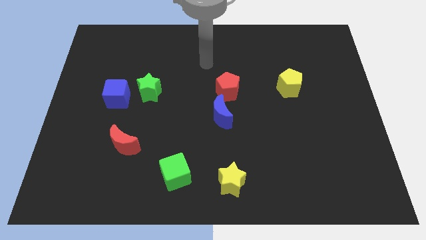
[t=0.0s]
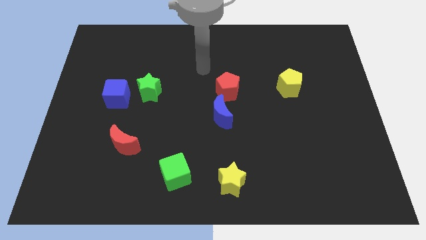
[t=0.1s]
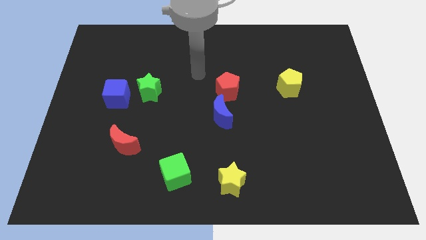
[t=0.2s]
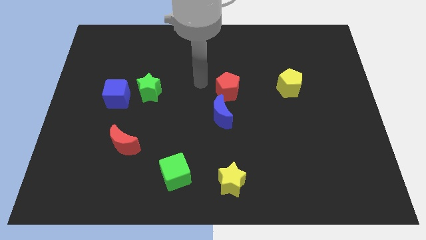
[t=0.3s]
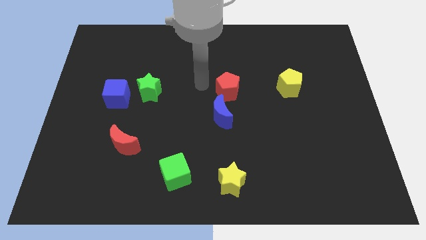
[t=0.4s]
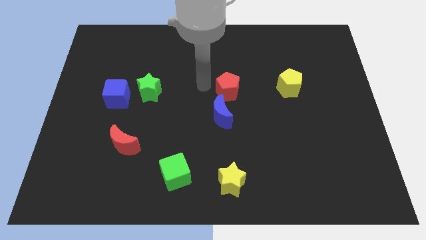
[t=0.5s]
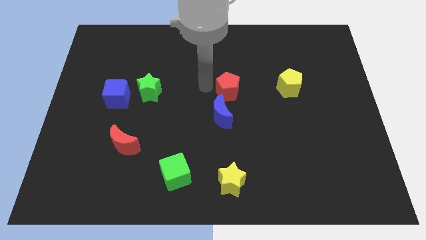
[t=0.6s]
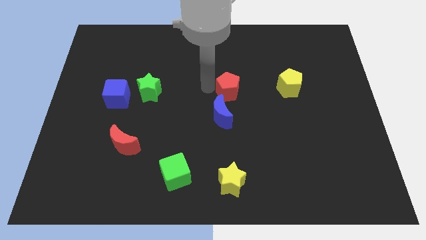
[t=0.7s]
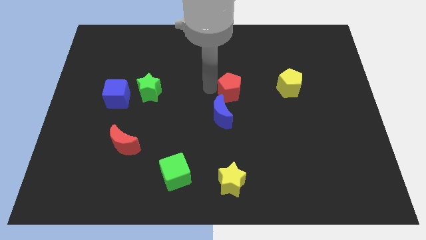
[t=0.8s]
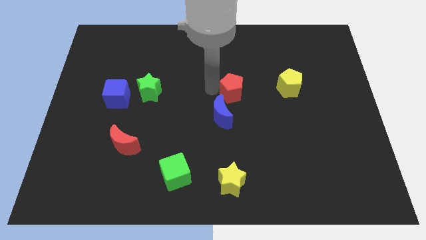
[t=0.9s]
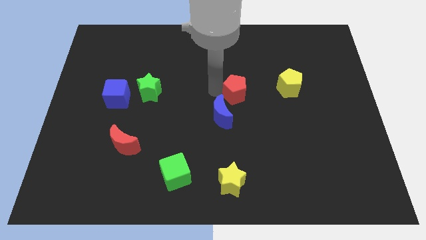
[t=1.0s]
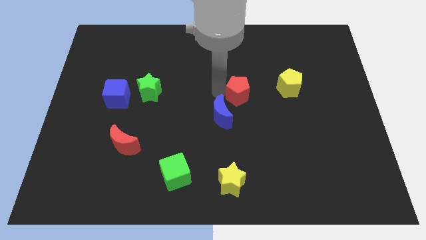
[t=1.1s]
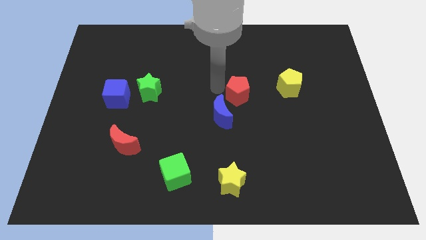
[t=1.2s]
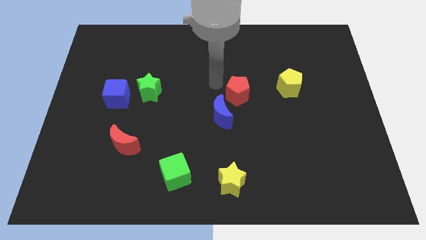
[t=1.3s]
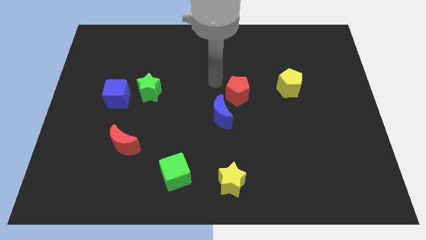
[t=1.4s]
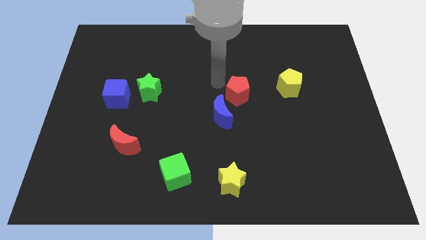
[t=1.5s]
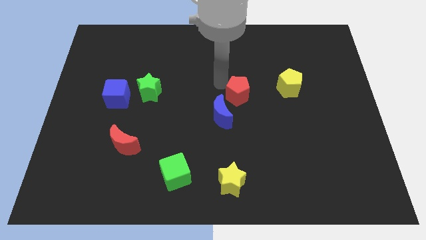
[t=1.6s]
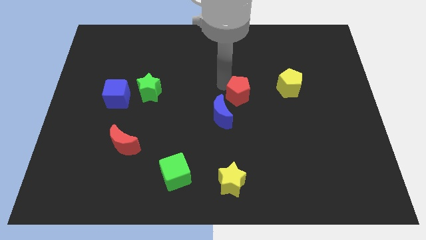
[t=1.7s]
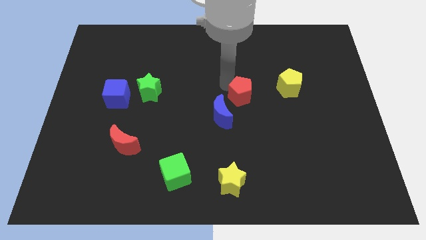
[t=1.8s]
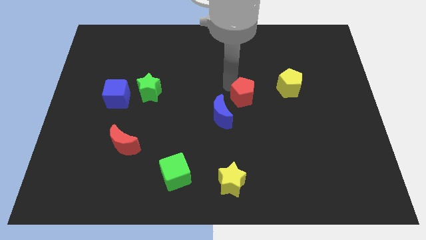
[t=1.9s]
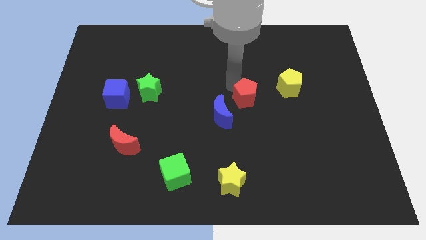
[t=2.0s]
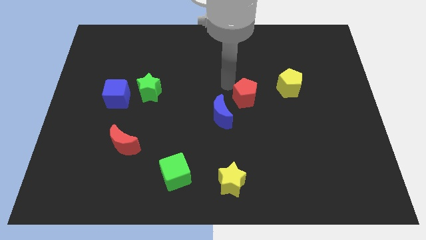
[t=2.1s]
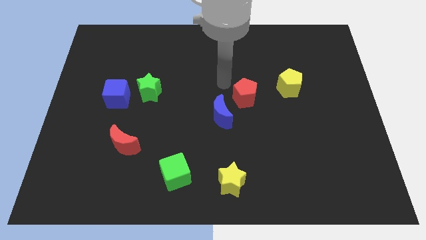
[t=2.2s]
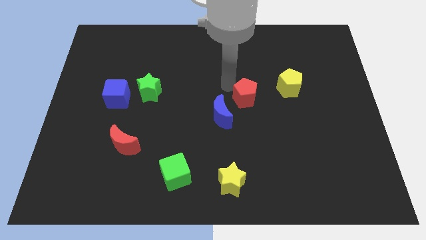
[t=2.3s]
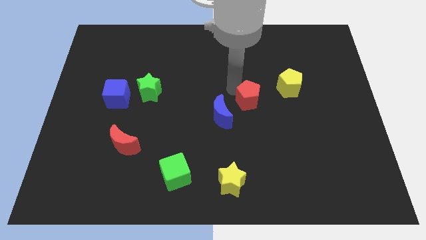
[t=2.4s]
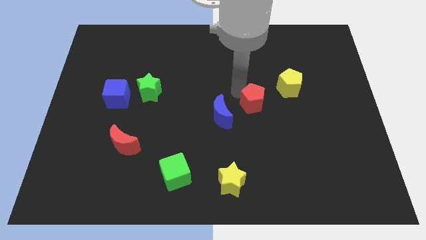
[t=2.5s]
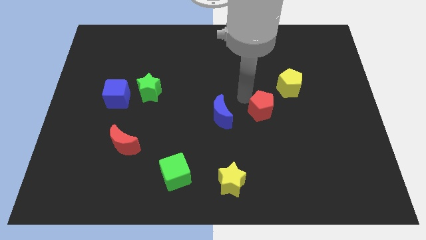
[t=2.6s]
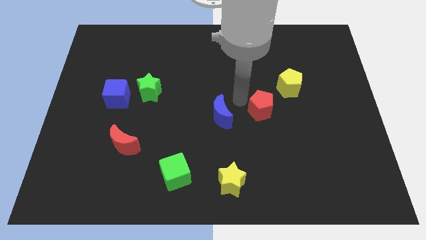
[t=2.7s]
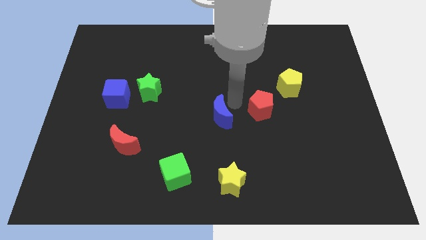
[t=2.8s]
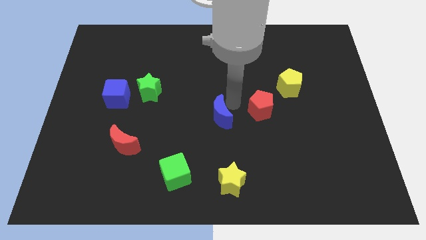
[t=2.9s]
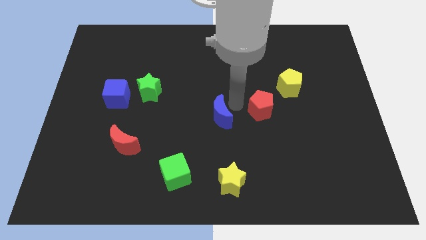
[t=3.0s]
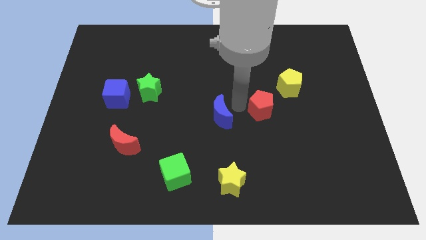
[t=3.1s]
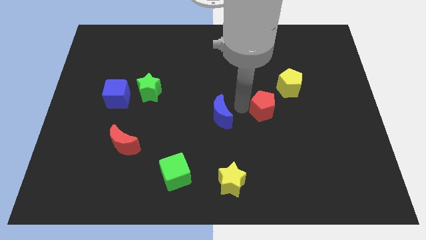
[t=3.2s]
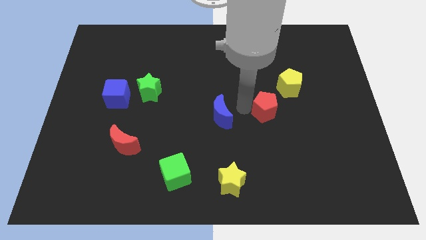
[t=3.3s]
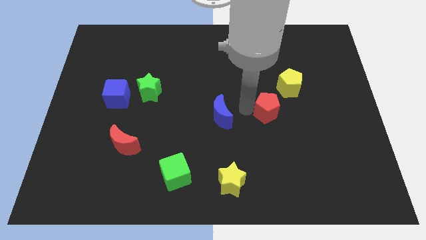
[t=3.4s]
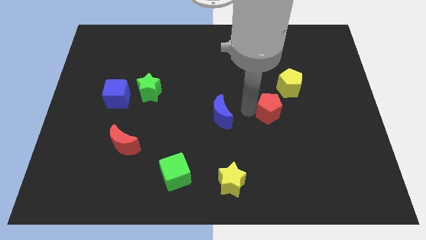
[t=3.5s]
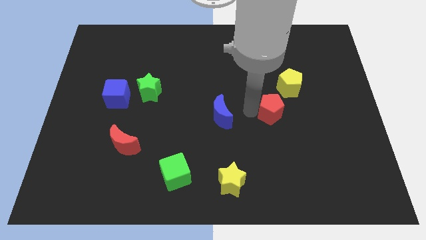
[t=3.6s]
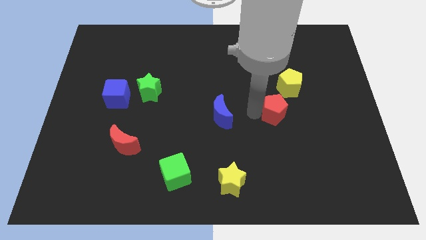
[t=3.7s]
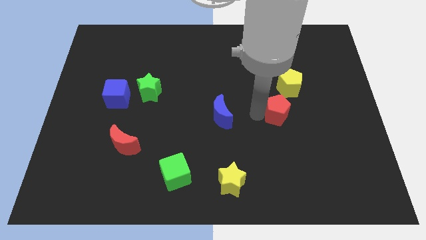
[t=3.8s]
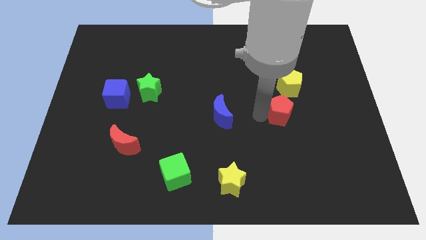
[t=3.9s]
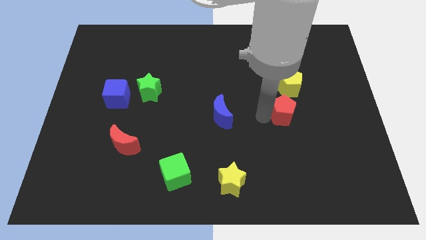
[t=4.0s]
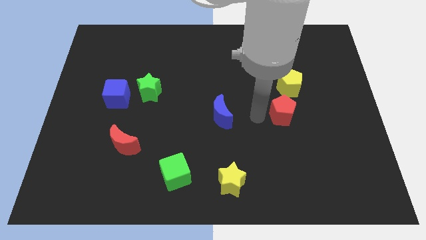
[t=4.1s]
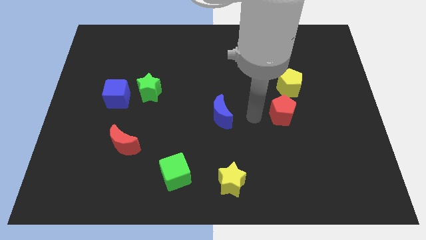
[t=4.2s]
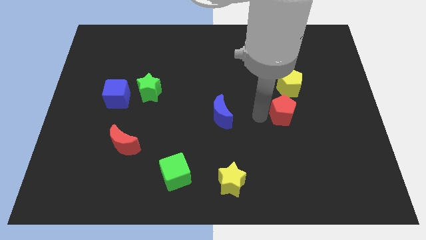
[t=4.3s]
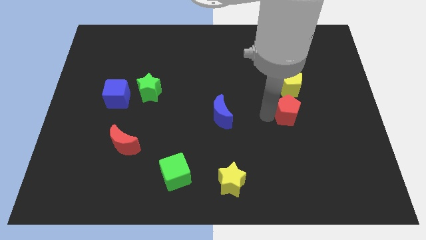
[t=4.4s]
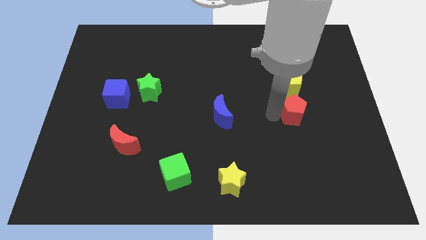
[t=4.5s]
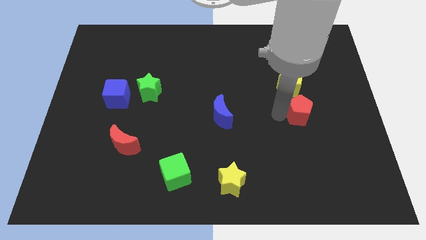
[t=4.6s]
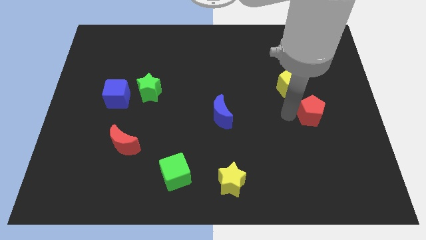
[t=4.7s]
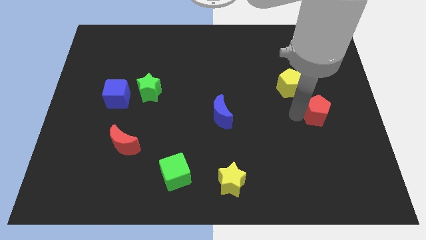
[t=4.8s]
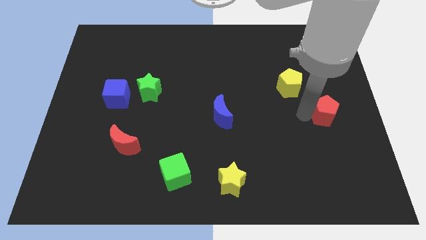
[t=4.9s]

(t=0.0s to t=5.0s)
slide the red pentagon to the right side

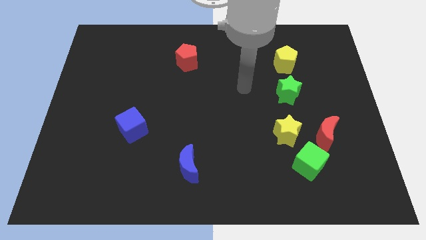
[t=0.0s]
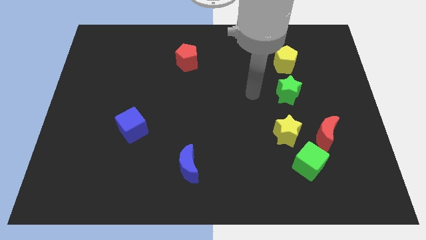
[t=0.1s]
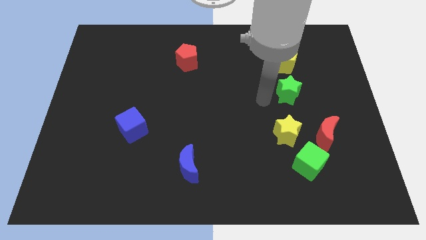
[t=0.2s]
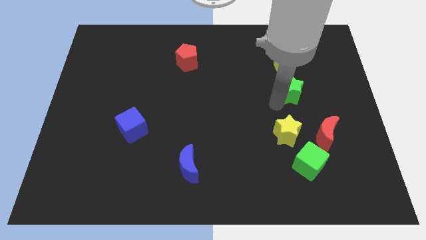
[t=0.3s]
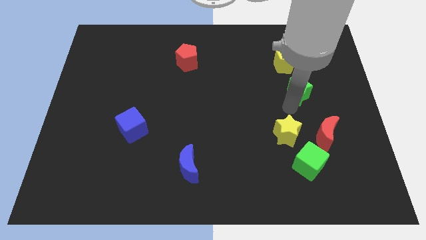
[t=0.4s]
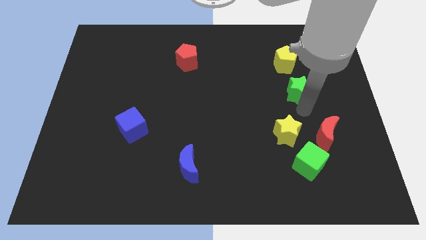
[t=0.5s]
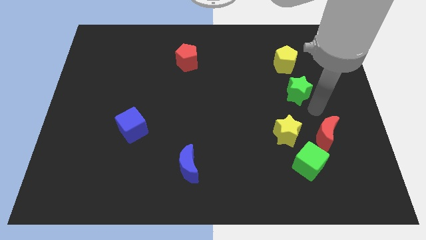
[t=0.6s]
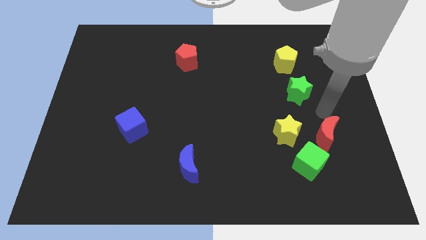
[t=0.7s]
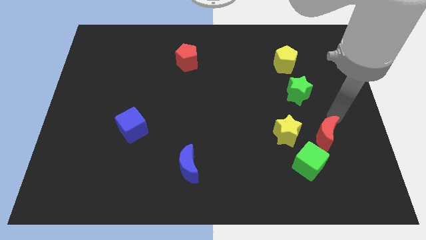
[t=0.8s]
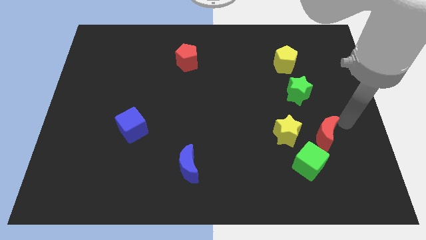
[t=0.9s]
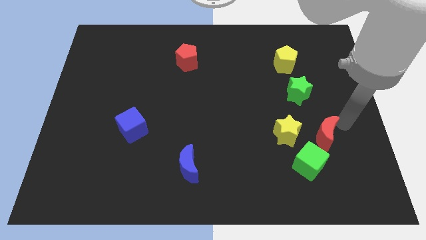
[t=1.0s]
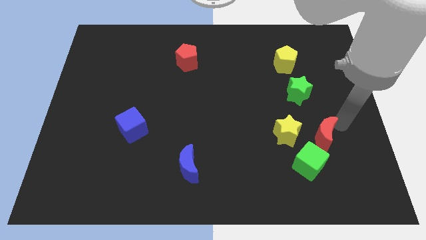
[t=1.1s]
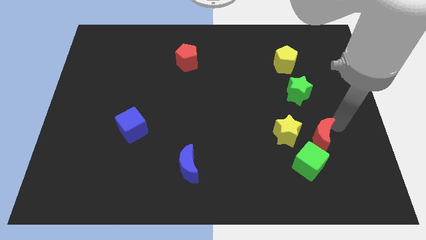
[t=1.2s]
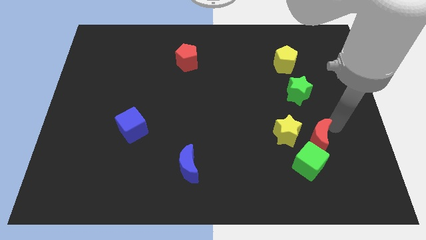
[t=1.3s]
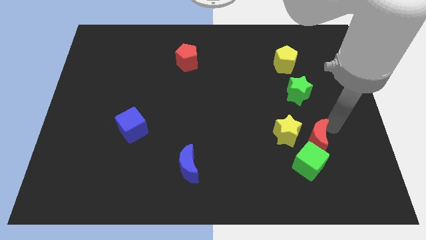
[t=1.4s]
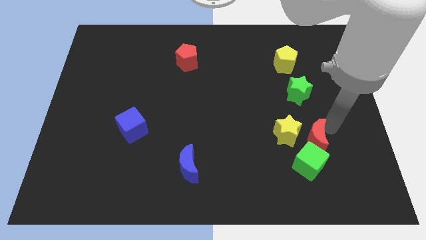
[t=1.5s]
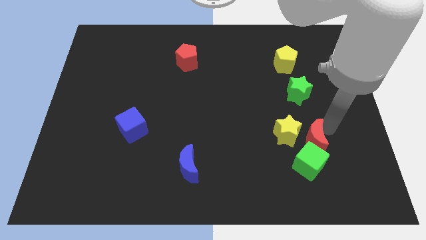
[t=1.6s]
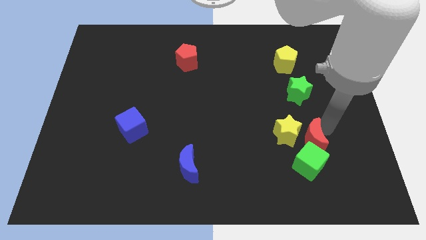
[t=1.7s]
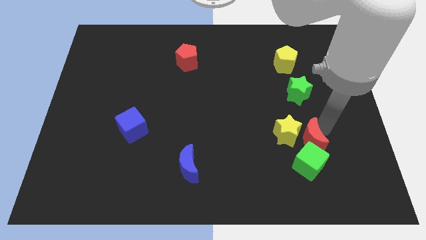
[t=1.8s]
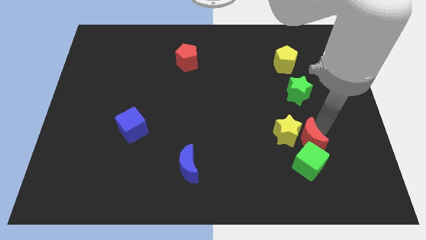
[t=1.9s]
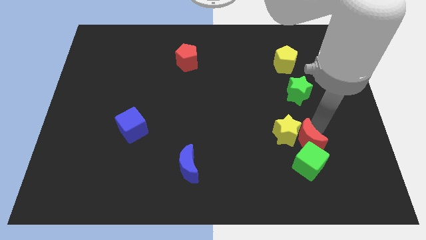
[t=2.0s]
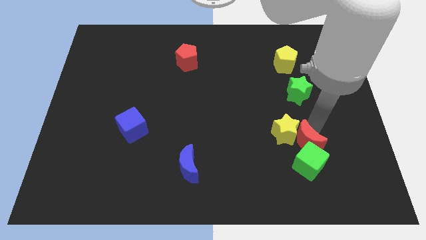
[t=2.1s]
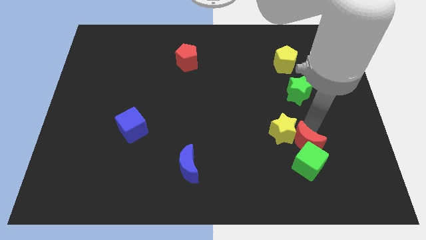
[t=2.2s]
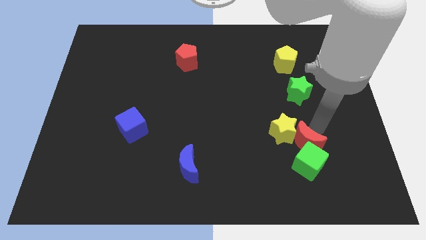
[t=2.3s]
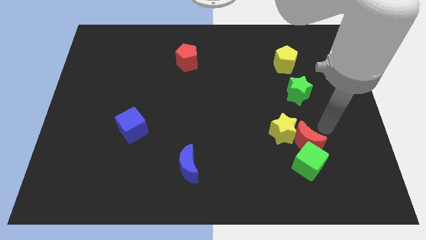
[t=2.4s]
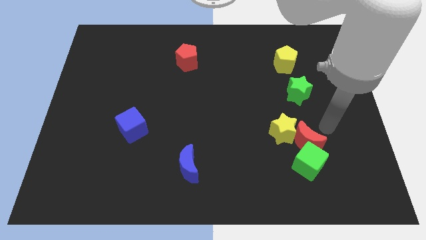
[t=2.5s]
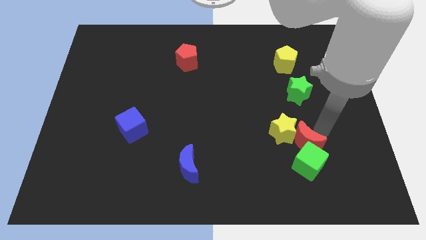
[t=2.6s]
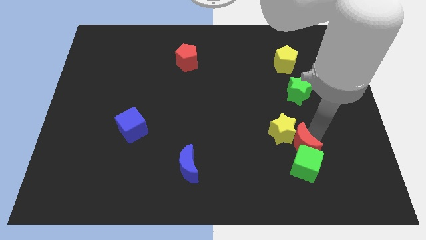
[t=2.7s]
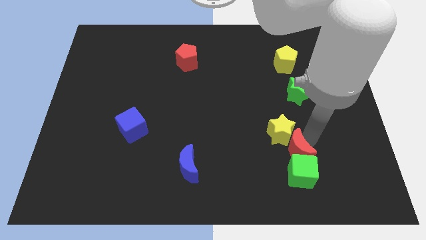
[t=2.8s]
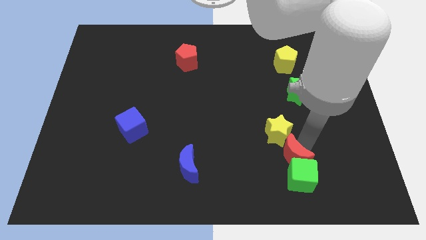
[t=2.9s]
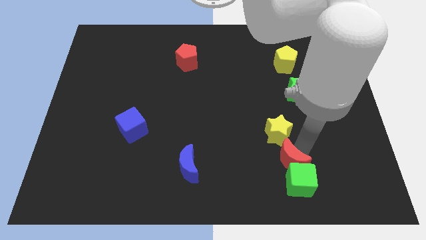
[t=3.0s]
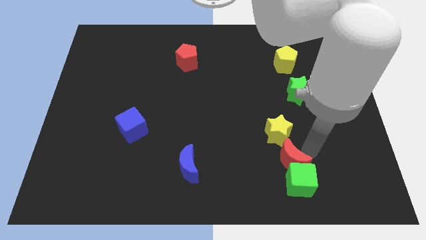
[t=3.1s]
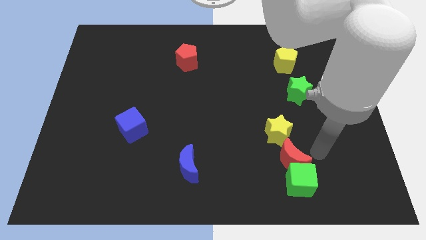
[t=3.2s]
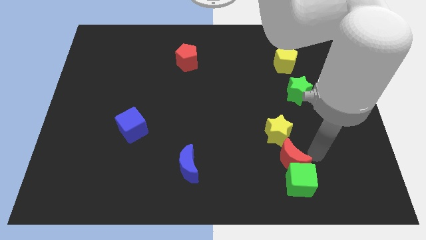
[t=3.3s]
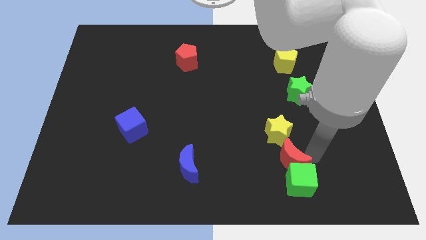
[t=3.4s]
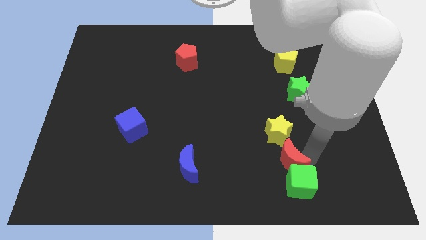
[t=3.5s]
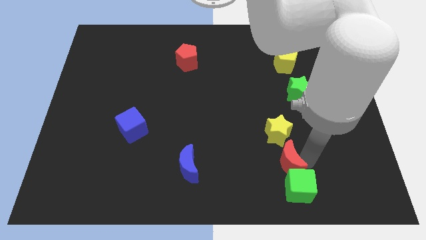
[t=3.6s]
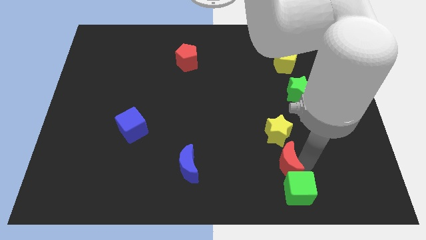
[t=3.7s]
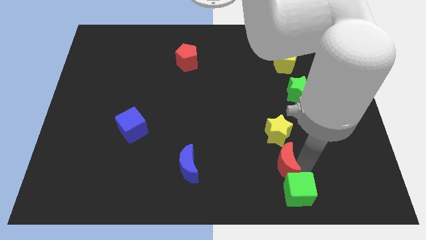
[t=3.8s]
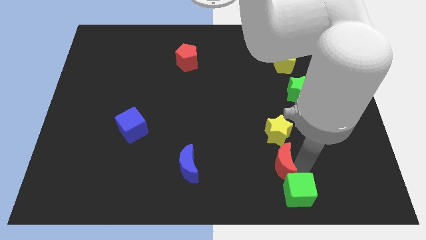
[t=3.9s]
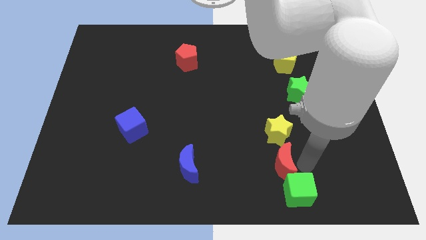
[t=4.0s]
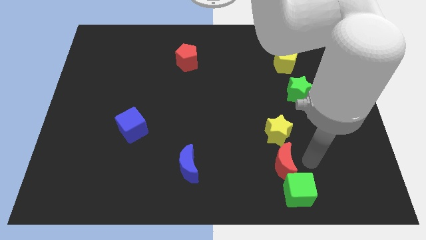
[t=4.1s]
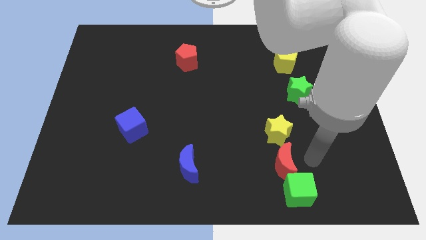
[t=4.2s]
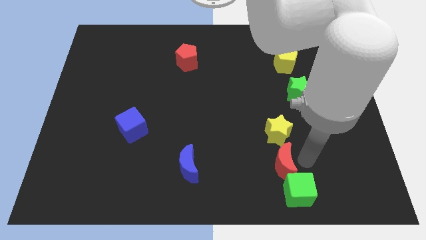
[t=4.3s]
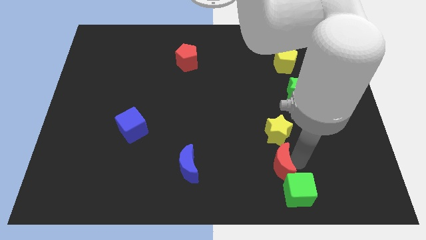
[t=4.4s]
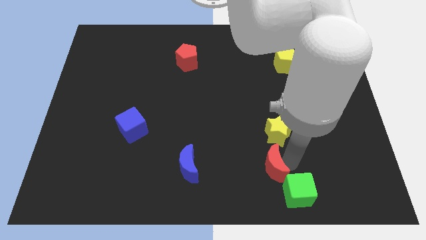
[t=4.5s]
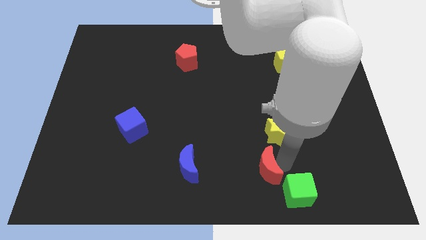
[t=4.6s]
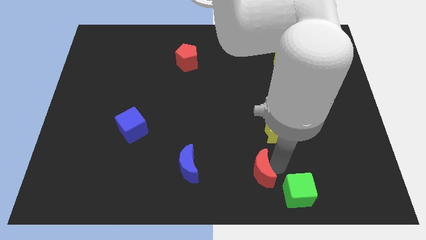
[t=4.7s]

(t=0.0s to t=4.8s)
push the red moon to the bottom
